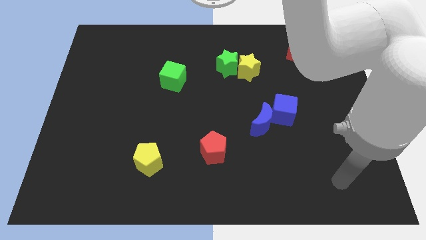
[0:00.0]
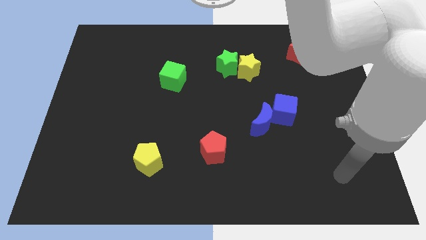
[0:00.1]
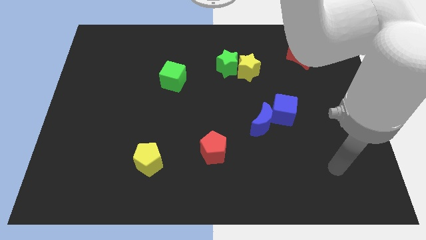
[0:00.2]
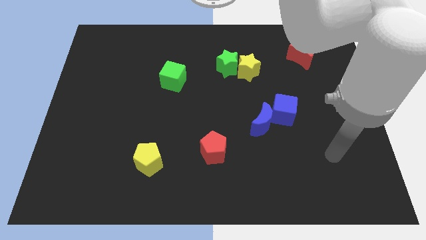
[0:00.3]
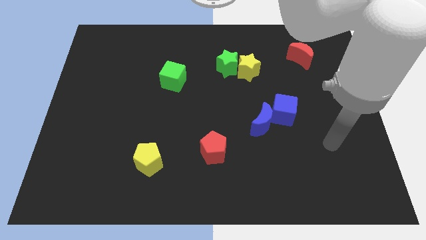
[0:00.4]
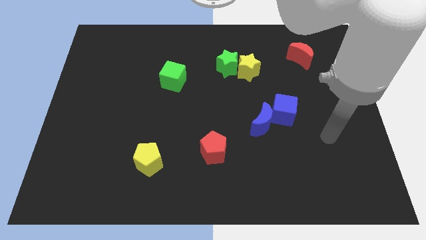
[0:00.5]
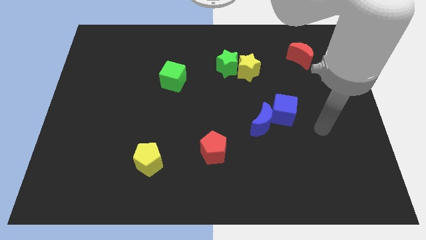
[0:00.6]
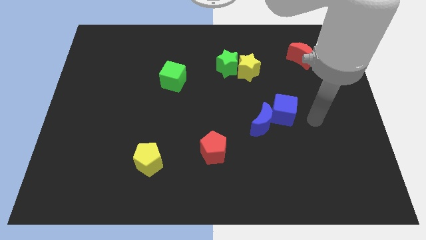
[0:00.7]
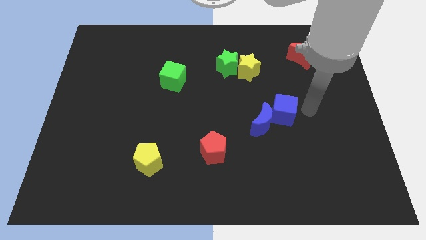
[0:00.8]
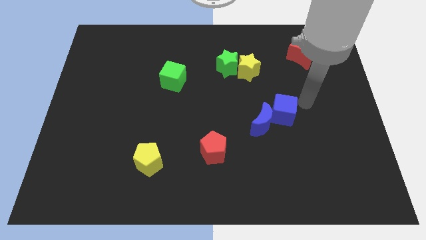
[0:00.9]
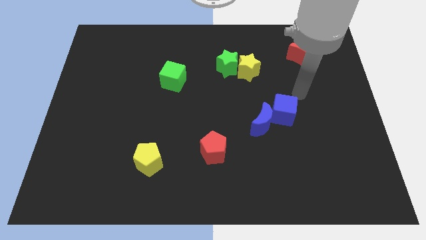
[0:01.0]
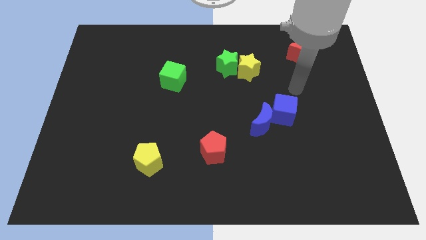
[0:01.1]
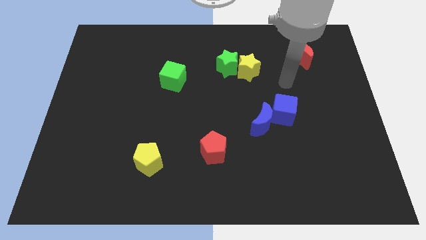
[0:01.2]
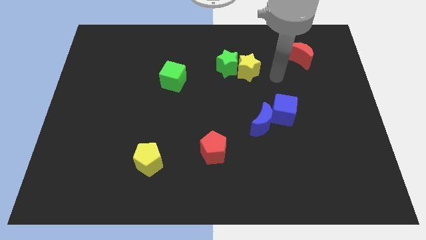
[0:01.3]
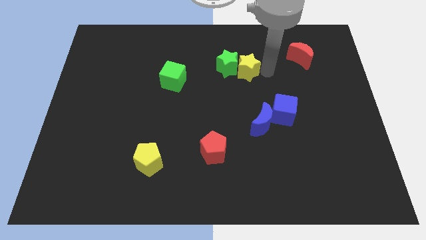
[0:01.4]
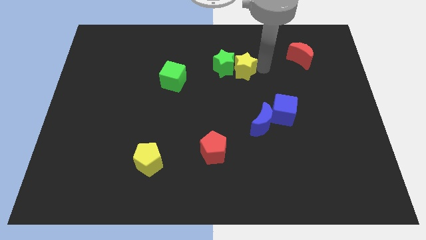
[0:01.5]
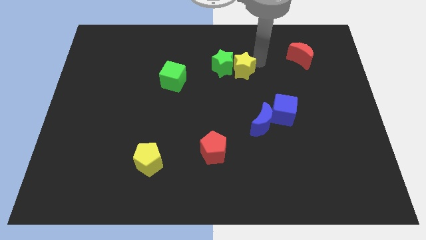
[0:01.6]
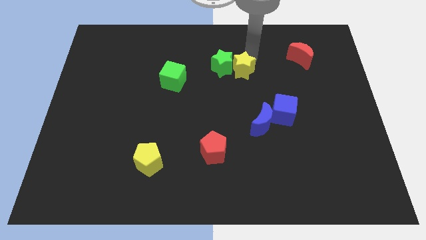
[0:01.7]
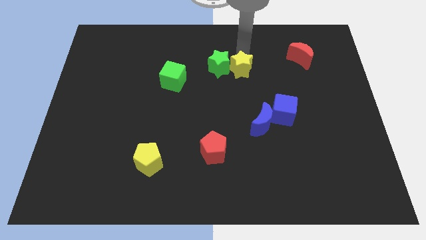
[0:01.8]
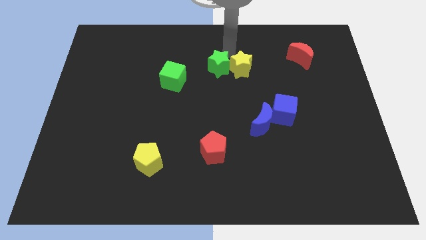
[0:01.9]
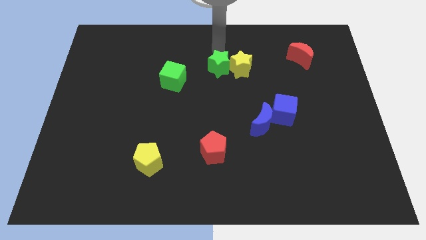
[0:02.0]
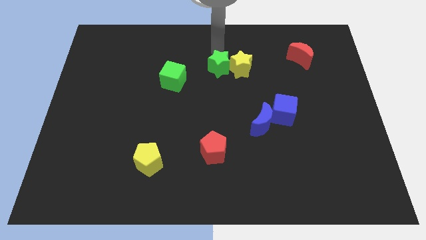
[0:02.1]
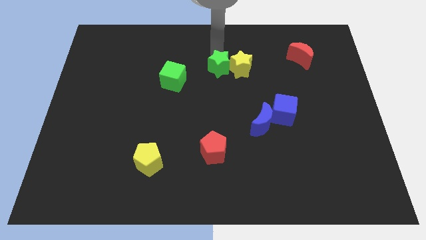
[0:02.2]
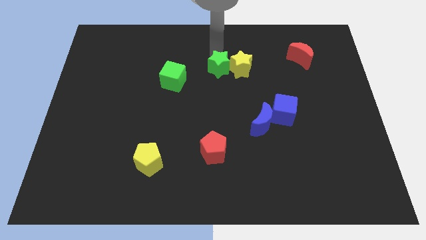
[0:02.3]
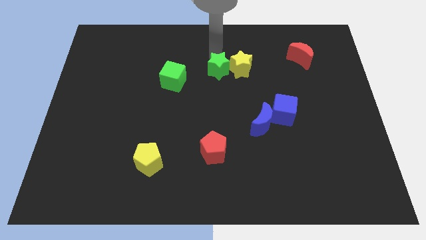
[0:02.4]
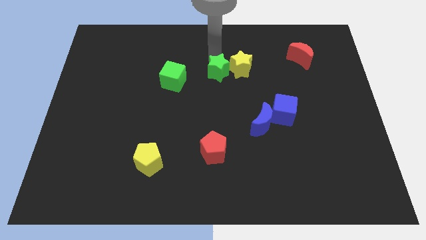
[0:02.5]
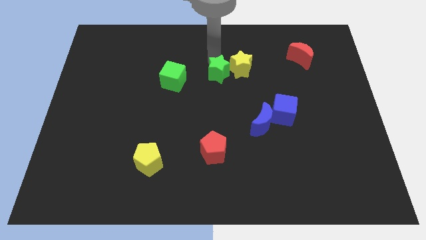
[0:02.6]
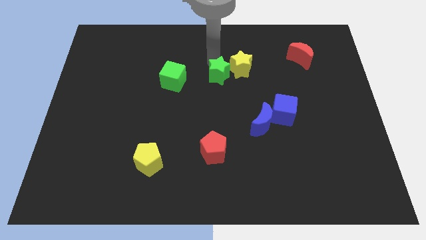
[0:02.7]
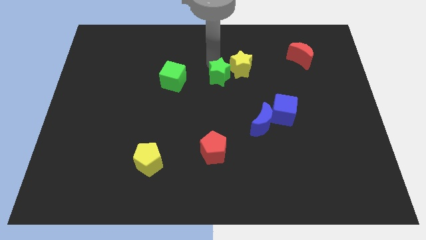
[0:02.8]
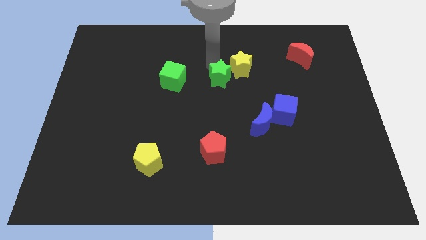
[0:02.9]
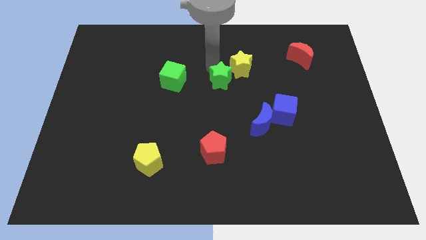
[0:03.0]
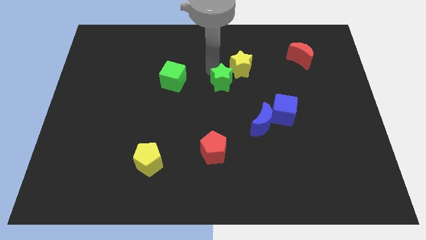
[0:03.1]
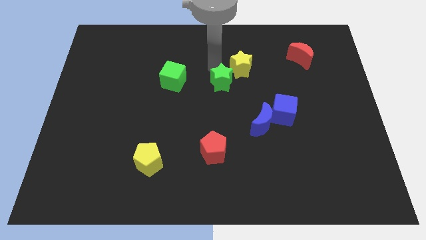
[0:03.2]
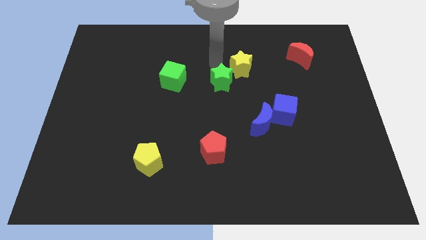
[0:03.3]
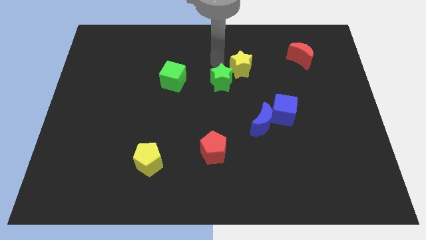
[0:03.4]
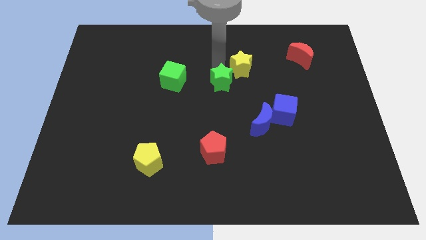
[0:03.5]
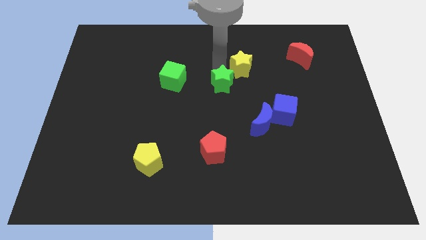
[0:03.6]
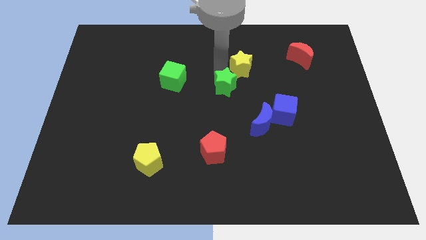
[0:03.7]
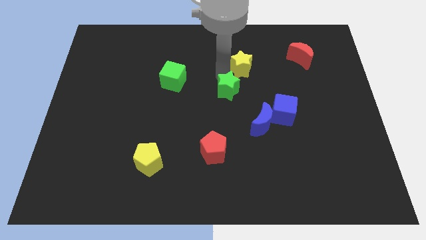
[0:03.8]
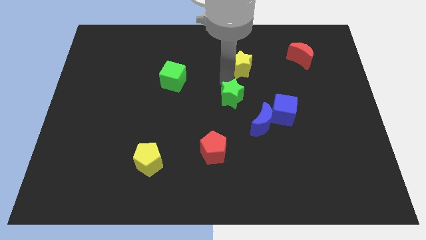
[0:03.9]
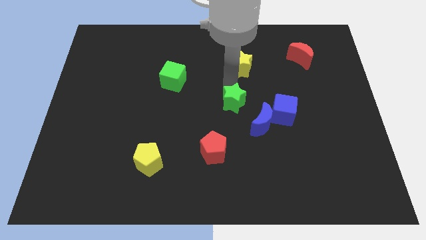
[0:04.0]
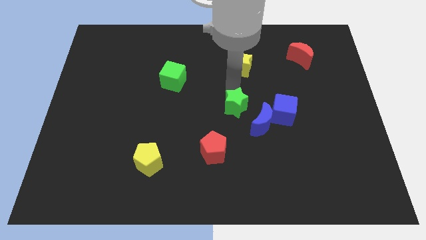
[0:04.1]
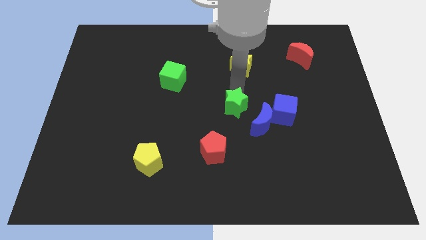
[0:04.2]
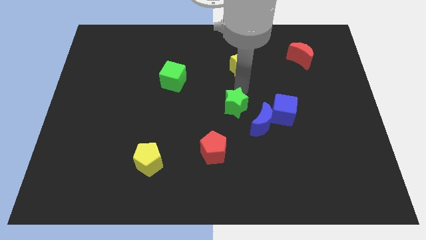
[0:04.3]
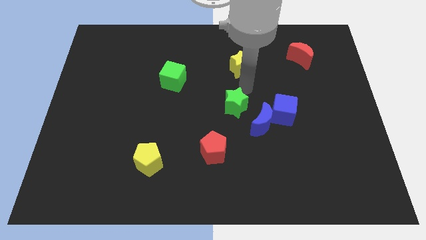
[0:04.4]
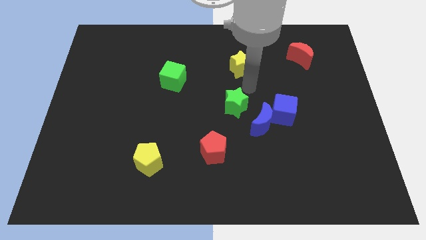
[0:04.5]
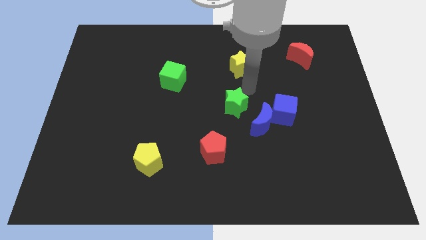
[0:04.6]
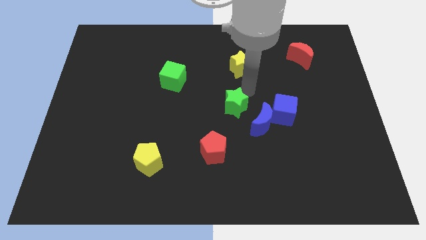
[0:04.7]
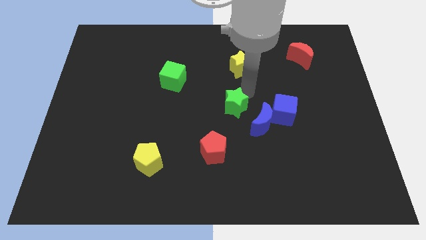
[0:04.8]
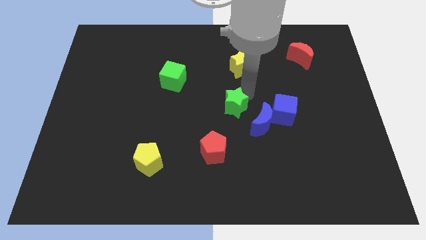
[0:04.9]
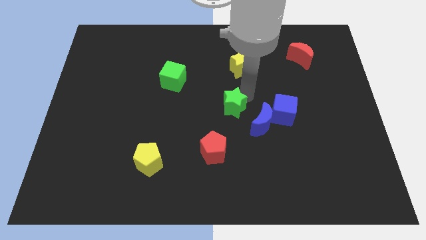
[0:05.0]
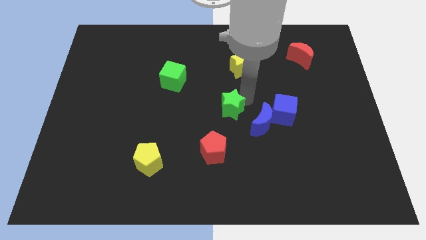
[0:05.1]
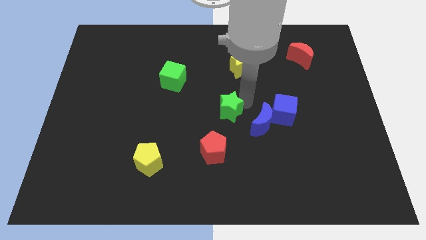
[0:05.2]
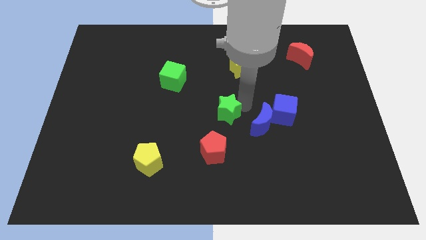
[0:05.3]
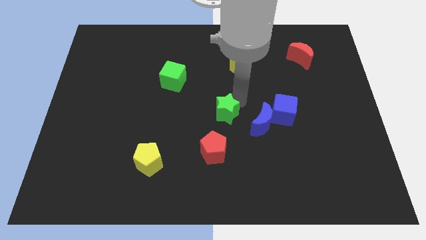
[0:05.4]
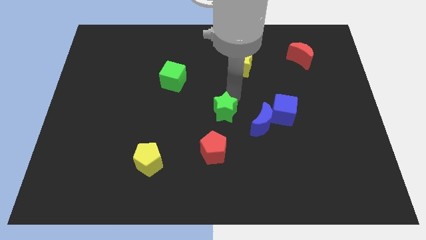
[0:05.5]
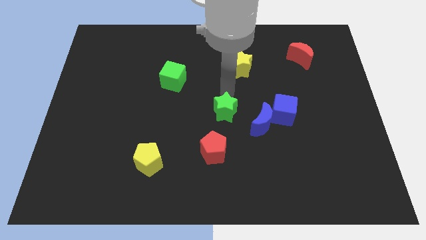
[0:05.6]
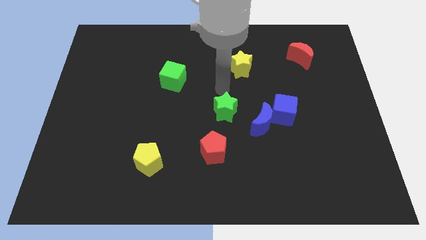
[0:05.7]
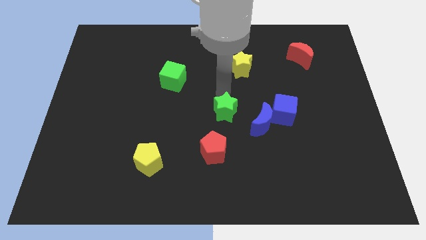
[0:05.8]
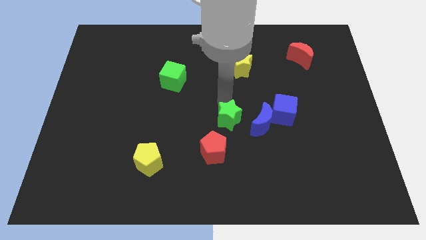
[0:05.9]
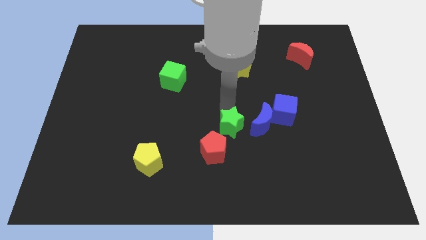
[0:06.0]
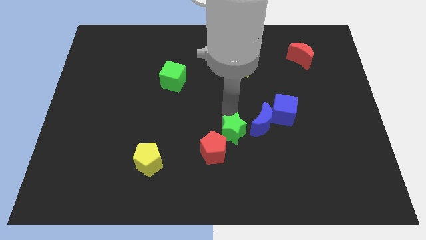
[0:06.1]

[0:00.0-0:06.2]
slide the green star down

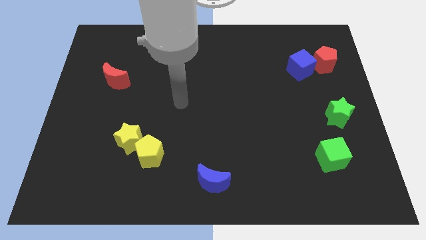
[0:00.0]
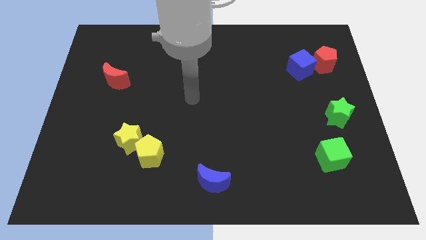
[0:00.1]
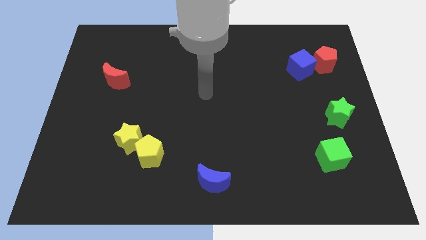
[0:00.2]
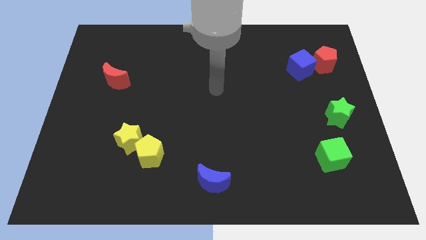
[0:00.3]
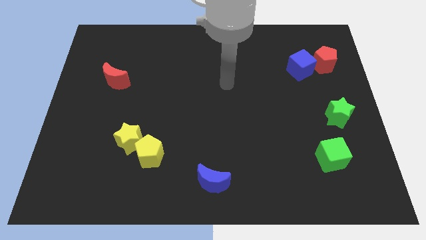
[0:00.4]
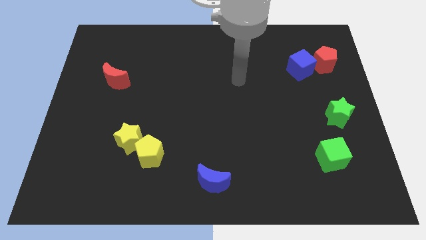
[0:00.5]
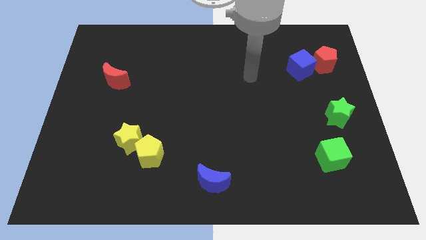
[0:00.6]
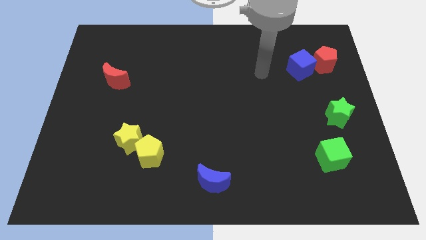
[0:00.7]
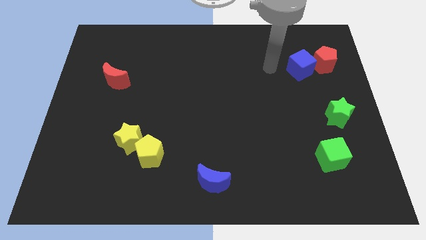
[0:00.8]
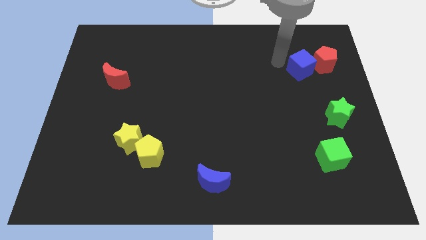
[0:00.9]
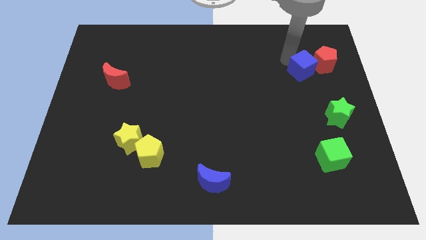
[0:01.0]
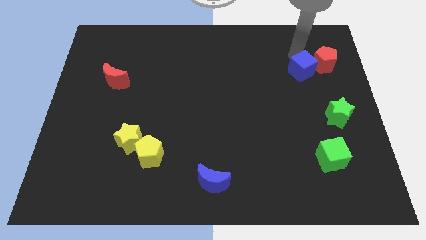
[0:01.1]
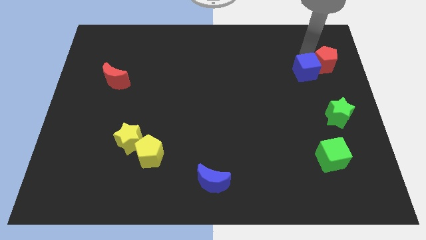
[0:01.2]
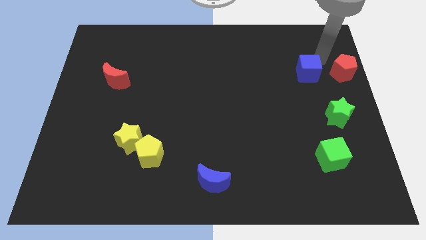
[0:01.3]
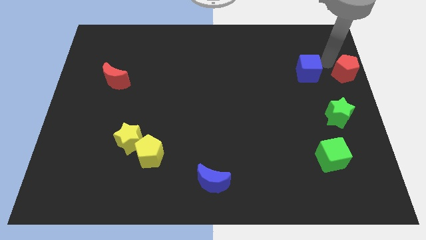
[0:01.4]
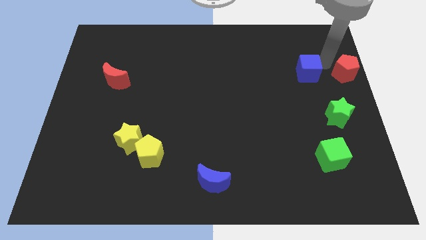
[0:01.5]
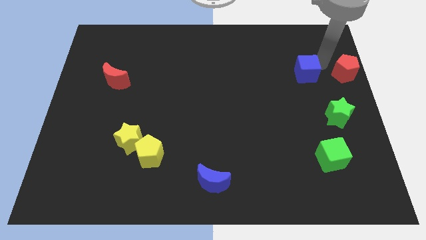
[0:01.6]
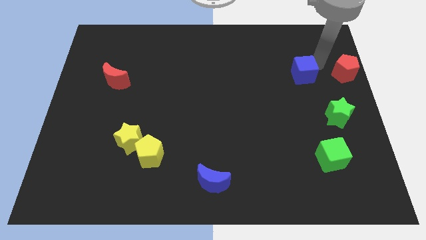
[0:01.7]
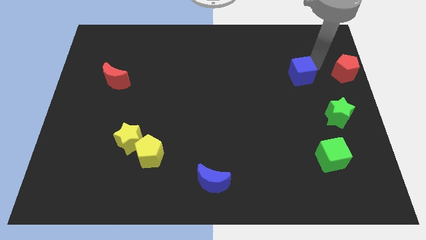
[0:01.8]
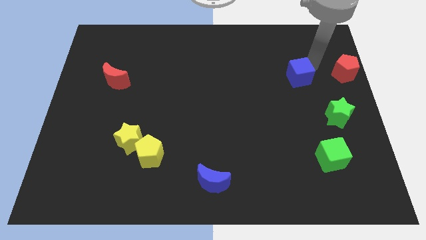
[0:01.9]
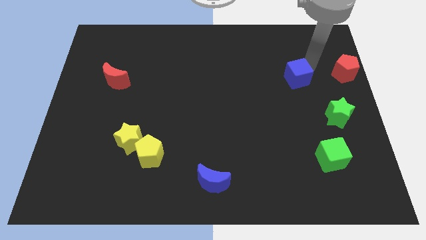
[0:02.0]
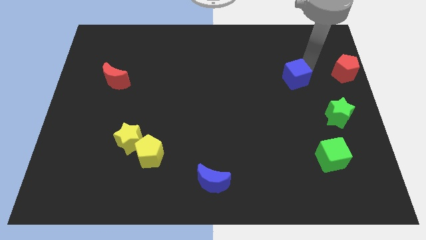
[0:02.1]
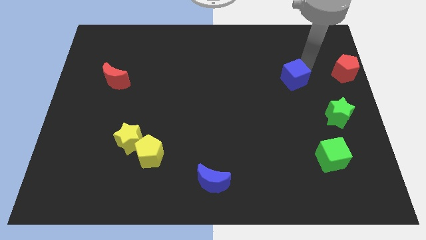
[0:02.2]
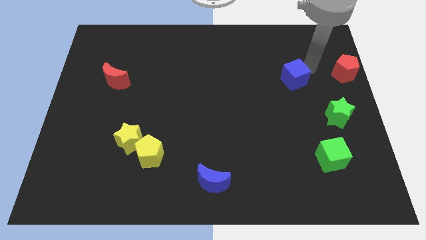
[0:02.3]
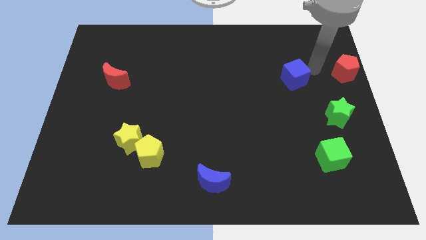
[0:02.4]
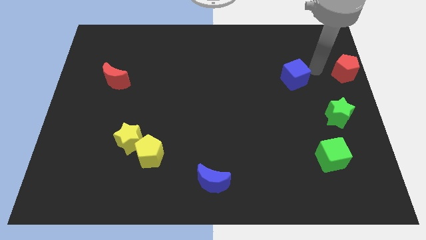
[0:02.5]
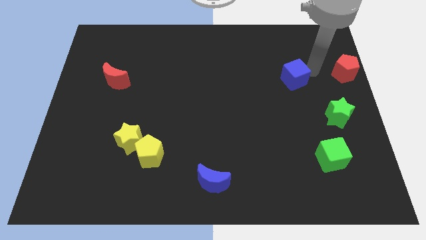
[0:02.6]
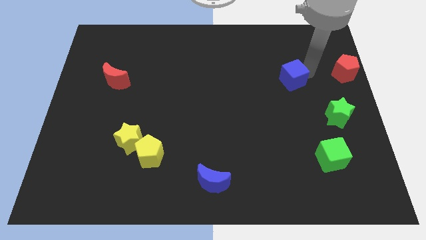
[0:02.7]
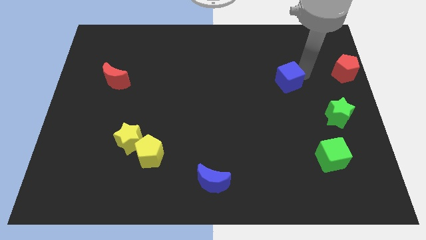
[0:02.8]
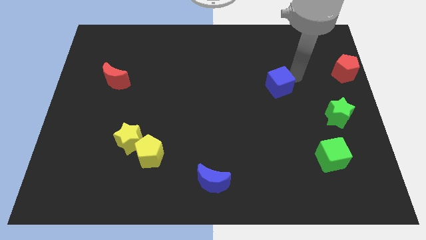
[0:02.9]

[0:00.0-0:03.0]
push the blue cube diagonally down and to the left a bit
